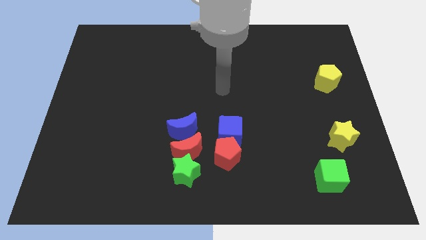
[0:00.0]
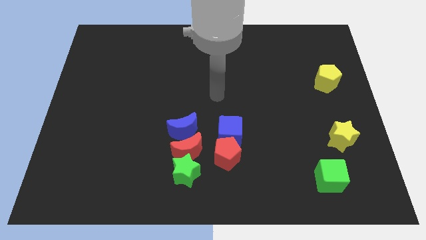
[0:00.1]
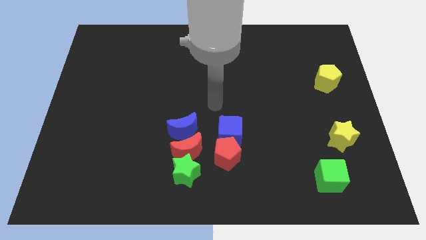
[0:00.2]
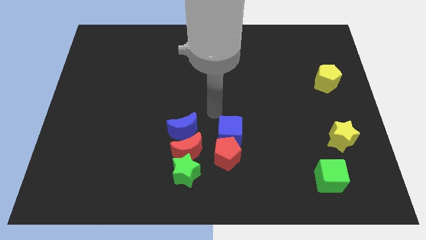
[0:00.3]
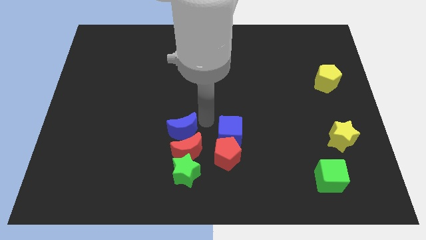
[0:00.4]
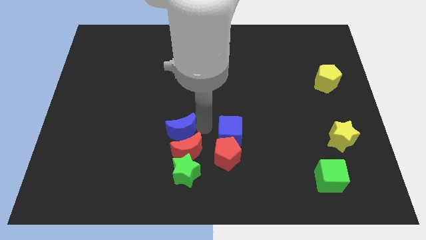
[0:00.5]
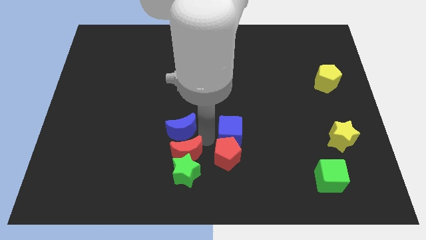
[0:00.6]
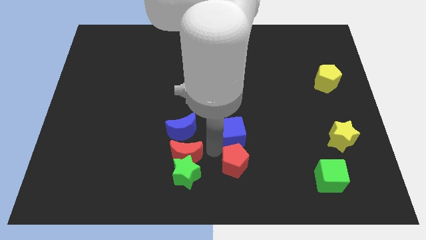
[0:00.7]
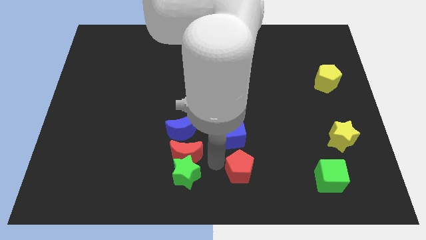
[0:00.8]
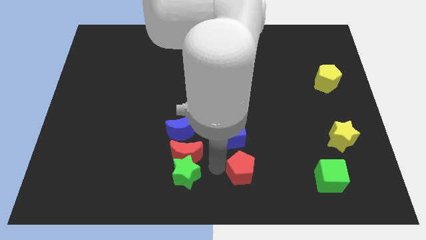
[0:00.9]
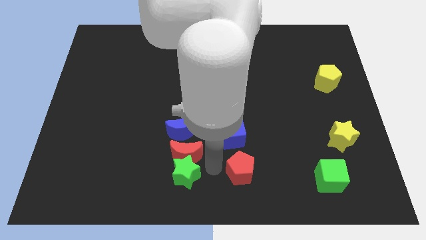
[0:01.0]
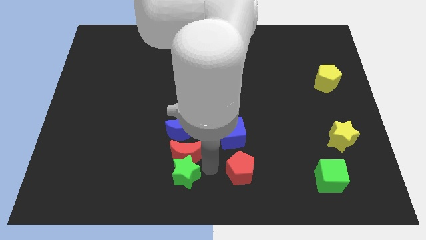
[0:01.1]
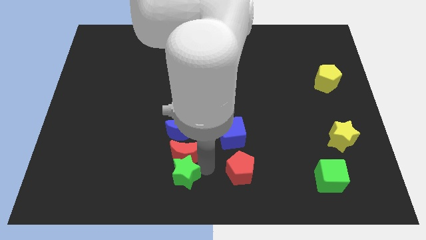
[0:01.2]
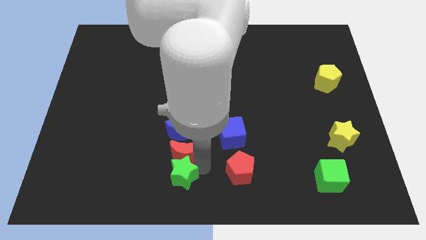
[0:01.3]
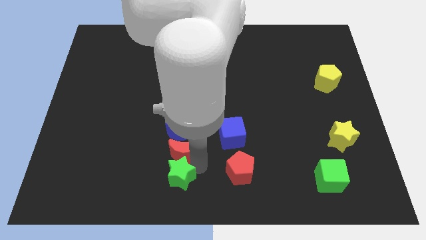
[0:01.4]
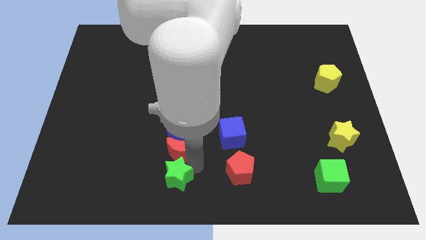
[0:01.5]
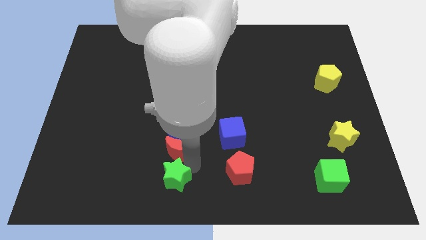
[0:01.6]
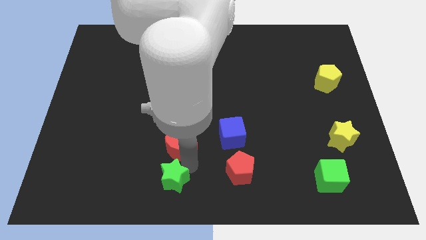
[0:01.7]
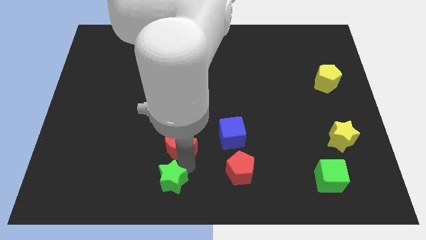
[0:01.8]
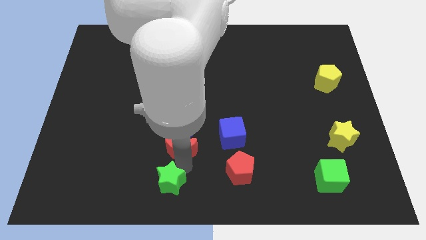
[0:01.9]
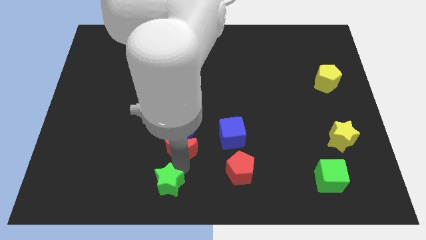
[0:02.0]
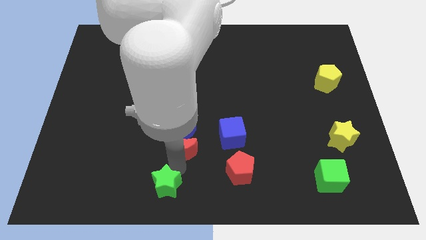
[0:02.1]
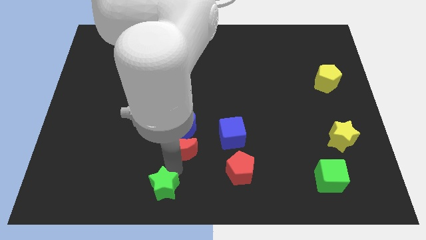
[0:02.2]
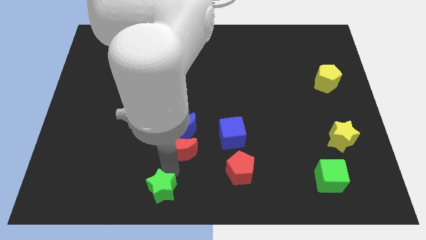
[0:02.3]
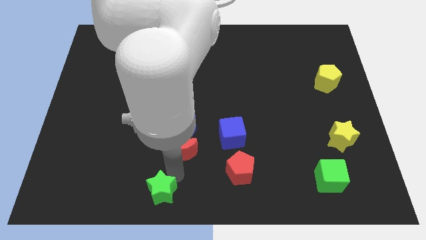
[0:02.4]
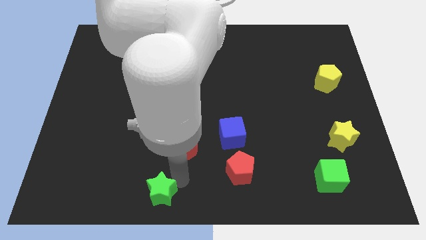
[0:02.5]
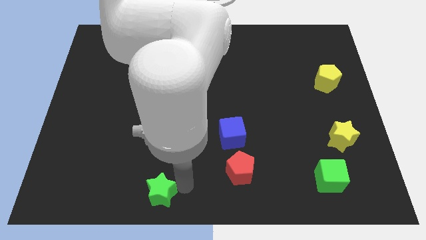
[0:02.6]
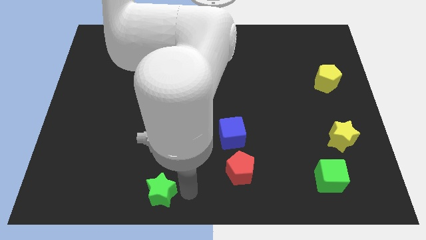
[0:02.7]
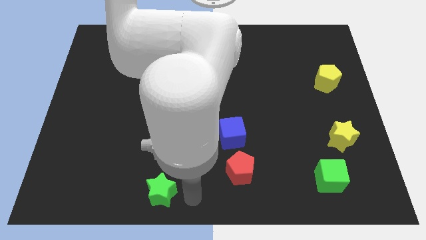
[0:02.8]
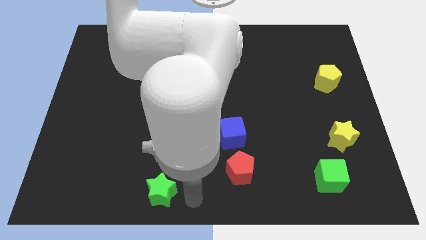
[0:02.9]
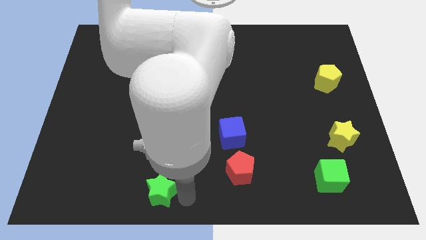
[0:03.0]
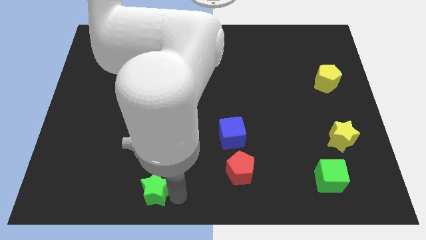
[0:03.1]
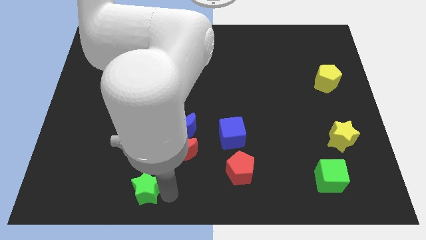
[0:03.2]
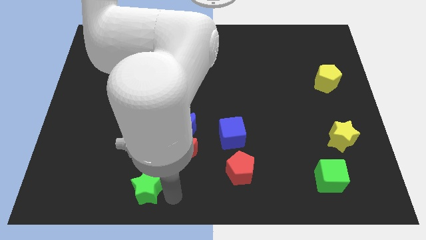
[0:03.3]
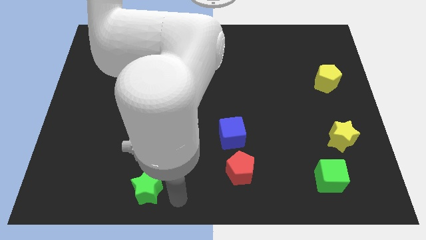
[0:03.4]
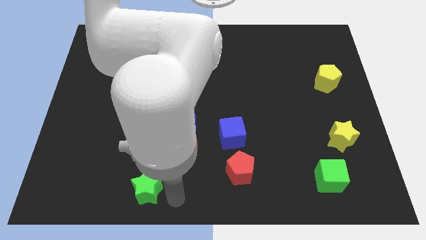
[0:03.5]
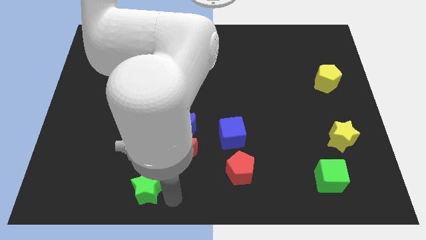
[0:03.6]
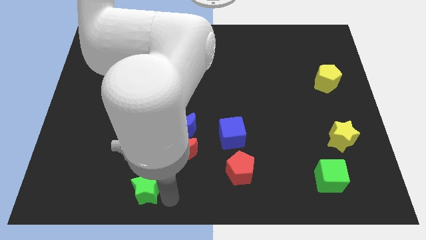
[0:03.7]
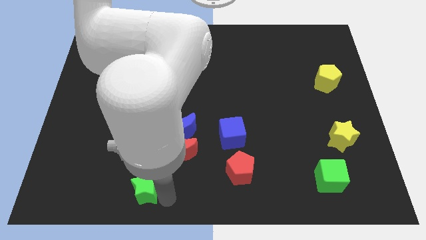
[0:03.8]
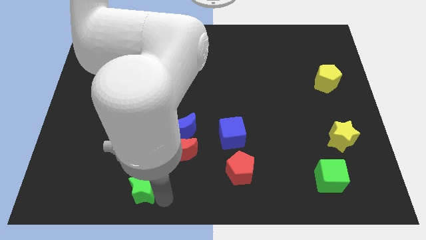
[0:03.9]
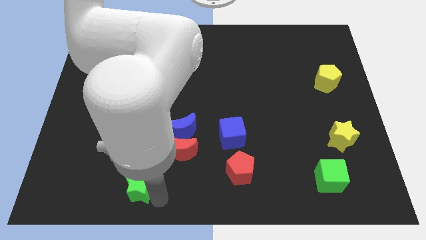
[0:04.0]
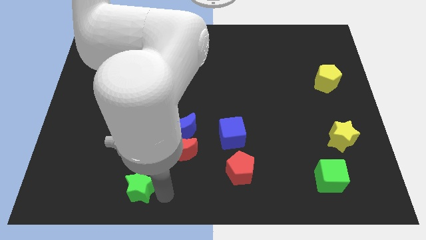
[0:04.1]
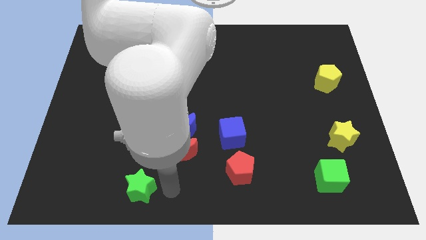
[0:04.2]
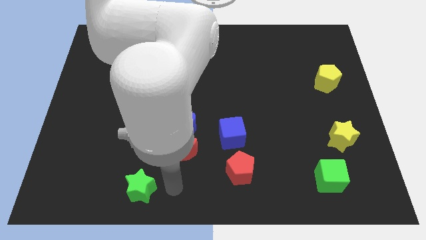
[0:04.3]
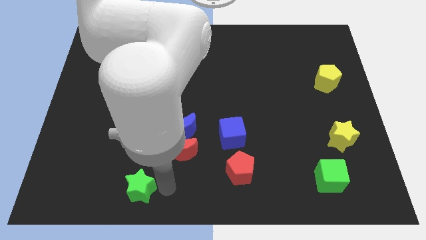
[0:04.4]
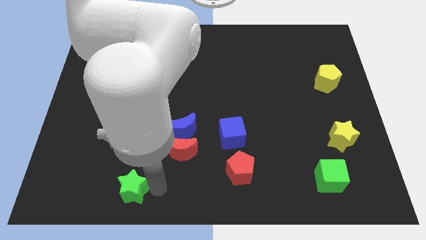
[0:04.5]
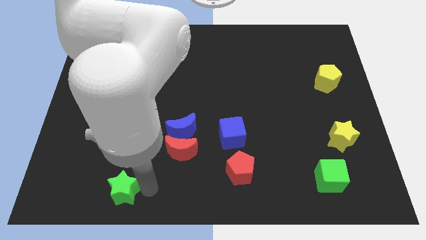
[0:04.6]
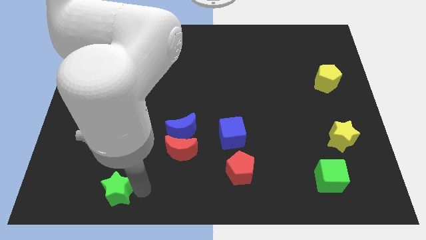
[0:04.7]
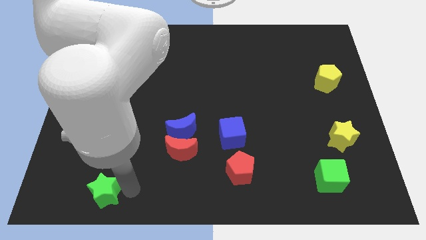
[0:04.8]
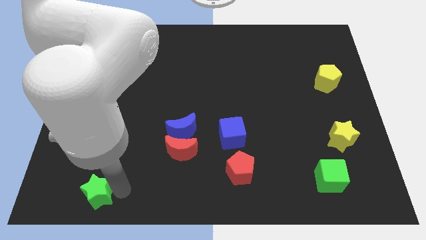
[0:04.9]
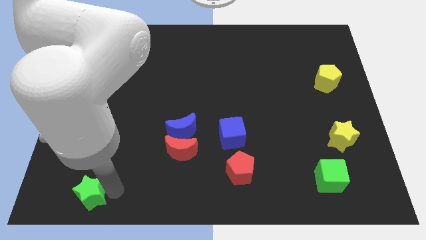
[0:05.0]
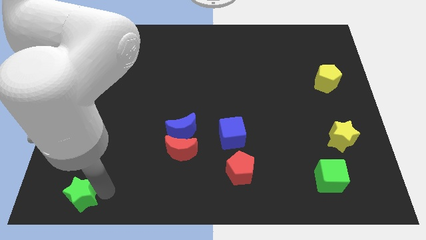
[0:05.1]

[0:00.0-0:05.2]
move the green star to the bottom left of the board

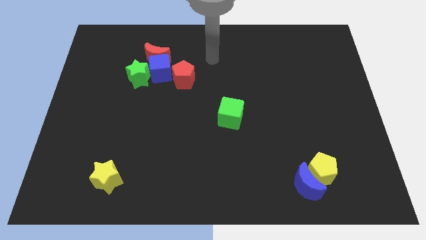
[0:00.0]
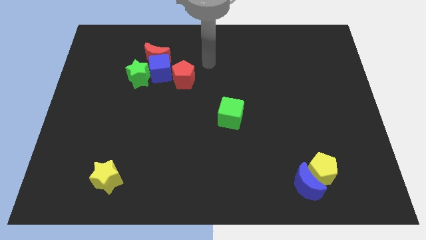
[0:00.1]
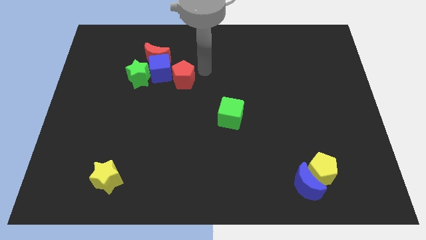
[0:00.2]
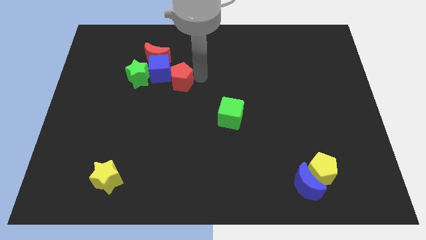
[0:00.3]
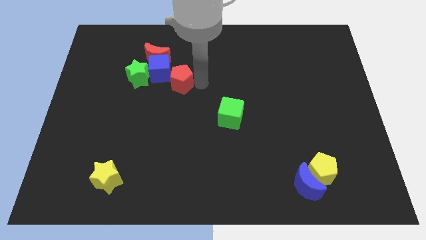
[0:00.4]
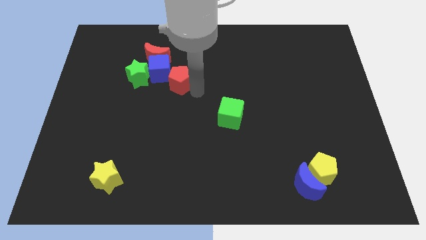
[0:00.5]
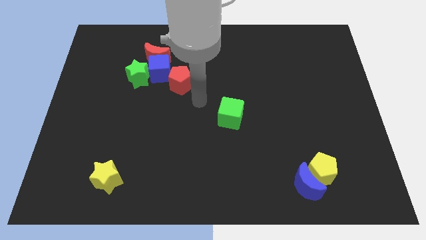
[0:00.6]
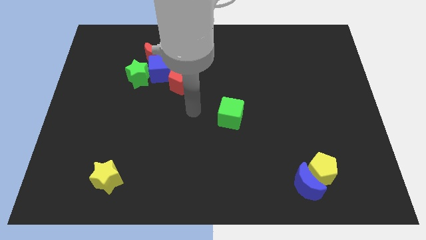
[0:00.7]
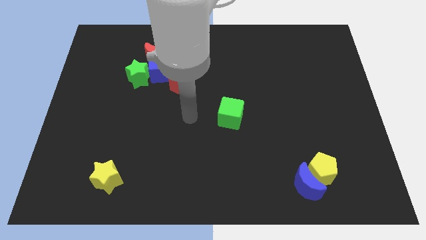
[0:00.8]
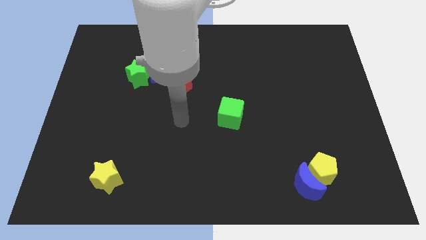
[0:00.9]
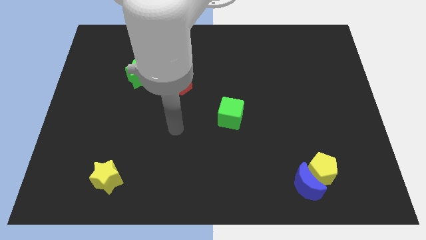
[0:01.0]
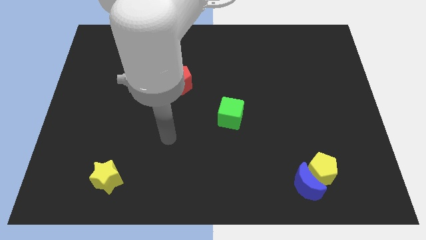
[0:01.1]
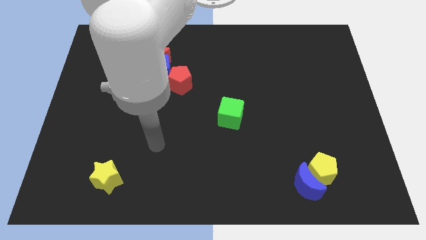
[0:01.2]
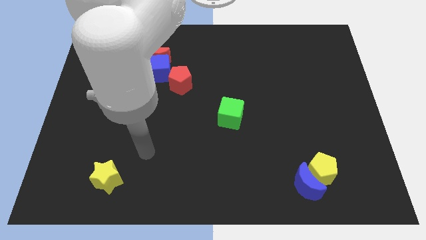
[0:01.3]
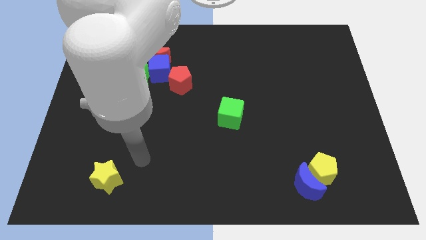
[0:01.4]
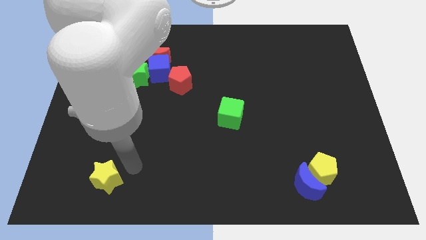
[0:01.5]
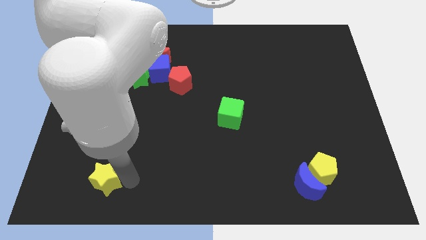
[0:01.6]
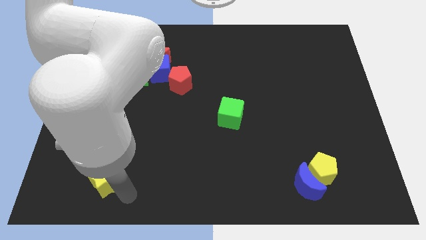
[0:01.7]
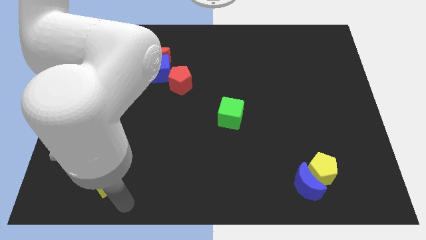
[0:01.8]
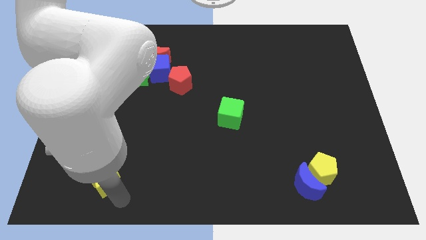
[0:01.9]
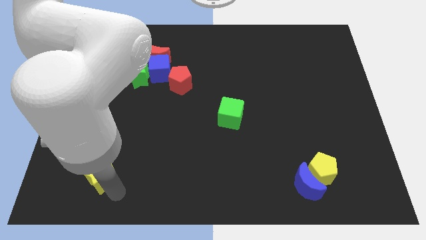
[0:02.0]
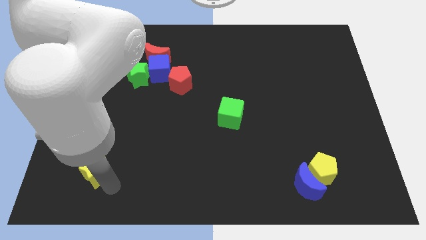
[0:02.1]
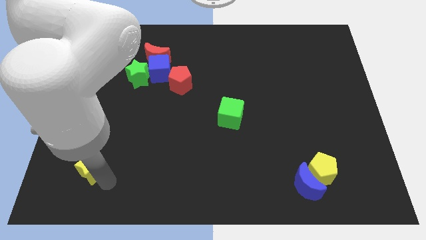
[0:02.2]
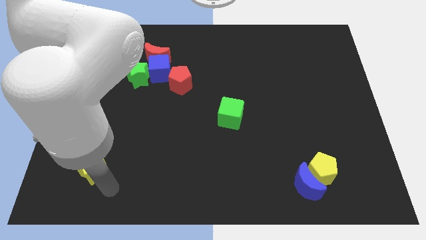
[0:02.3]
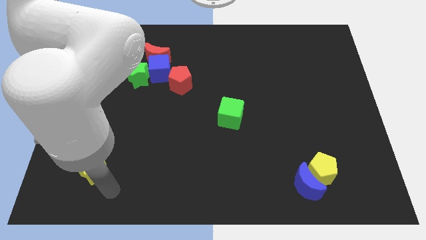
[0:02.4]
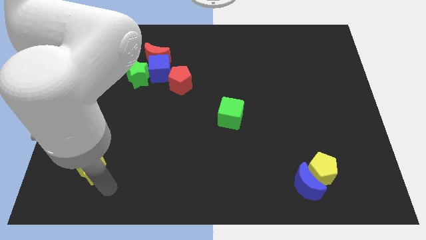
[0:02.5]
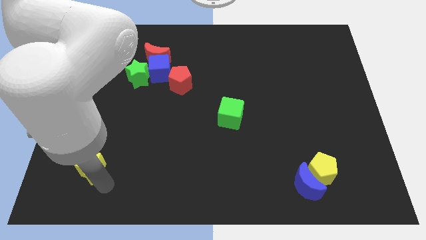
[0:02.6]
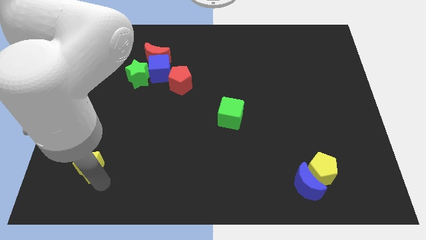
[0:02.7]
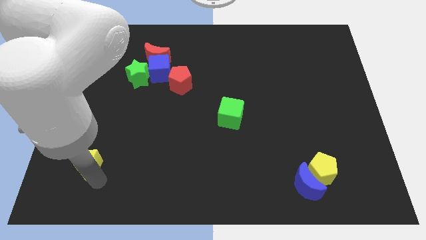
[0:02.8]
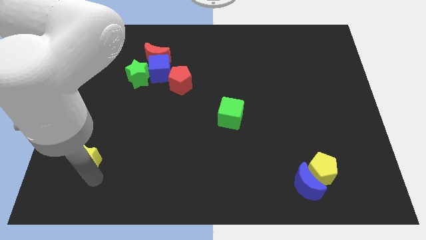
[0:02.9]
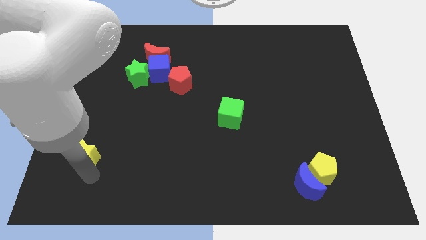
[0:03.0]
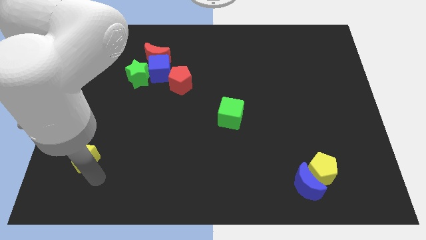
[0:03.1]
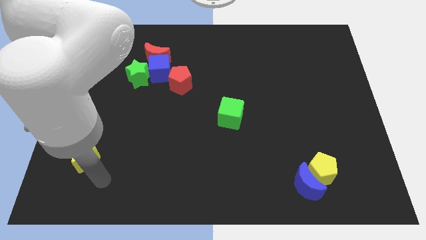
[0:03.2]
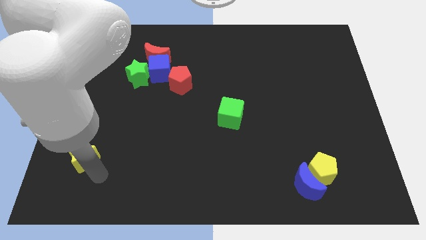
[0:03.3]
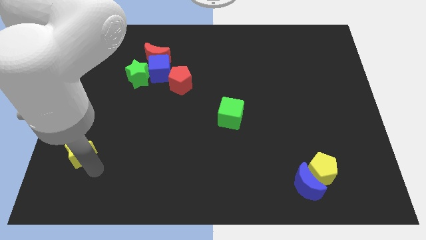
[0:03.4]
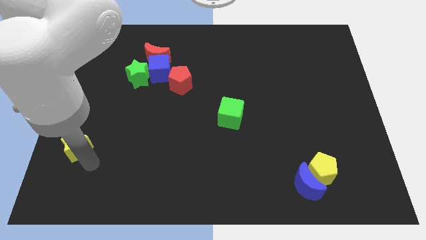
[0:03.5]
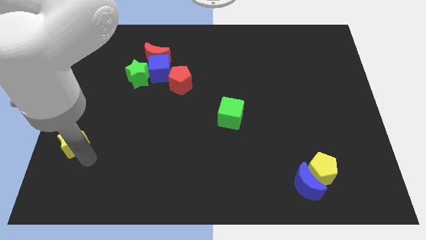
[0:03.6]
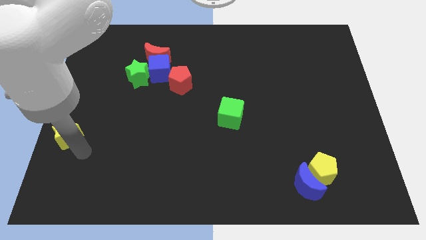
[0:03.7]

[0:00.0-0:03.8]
move the yellow star to the left side of the board
